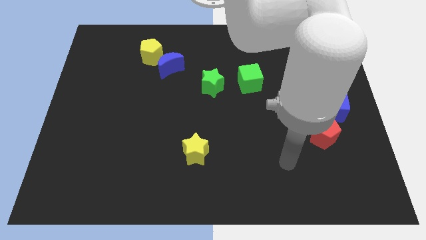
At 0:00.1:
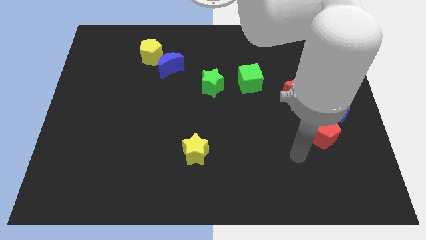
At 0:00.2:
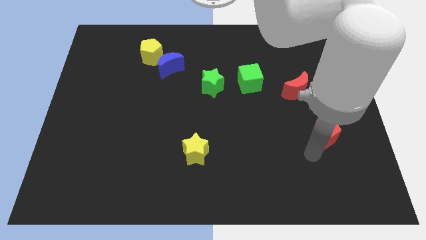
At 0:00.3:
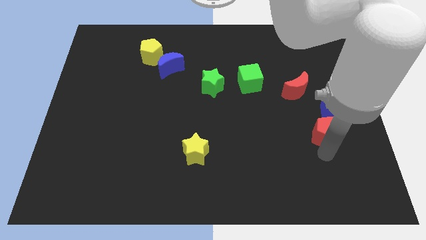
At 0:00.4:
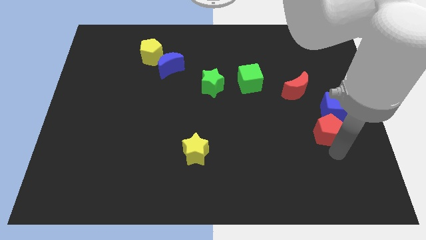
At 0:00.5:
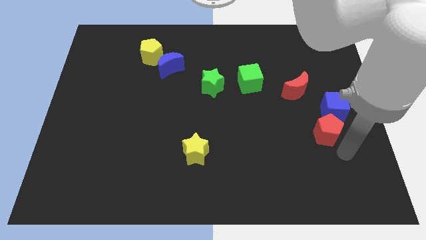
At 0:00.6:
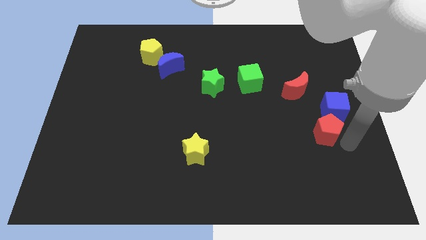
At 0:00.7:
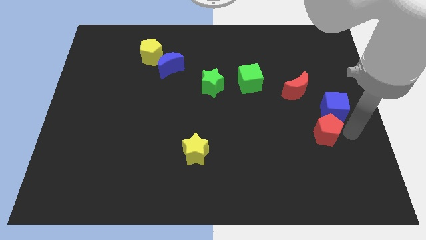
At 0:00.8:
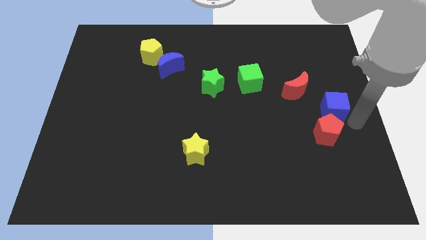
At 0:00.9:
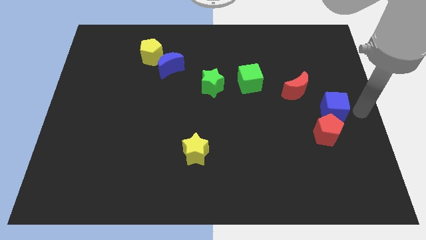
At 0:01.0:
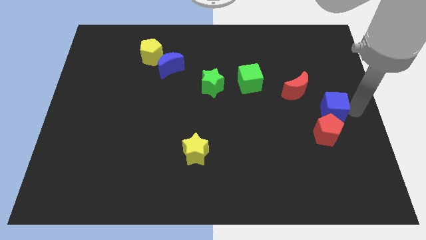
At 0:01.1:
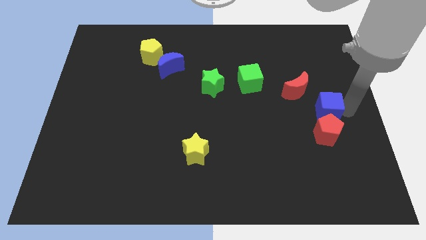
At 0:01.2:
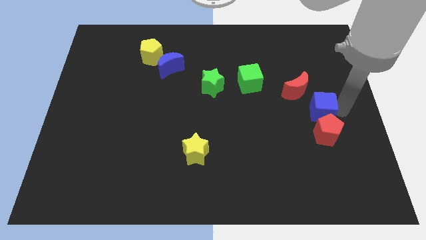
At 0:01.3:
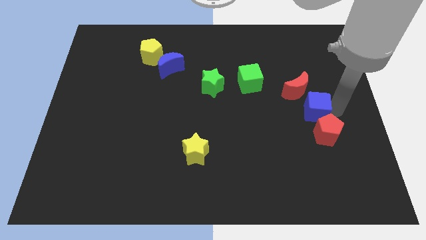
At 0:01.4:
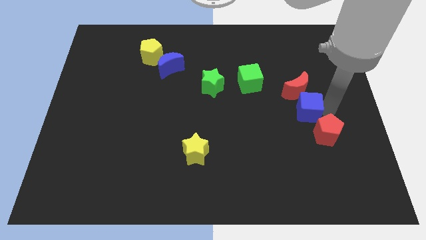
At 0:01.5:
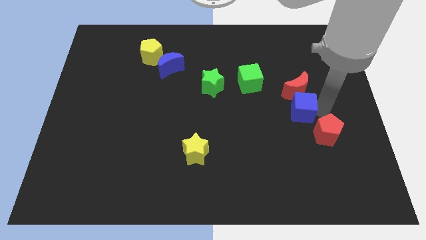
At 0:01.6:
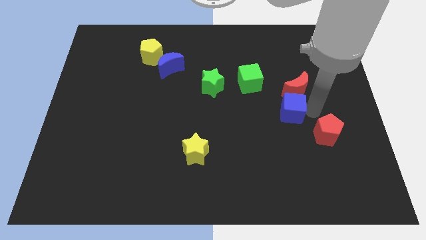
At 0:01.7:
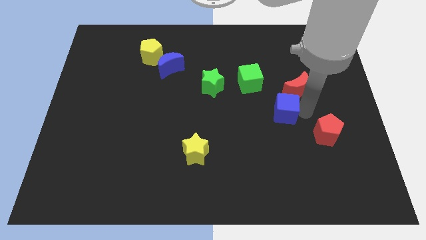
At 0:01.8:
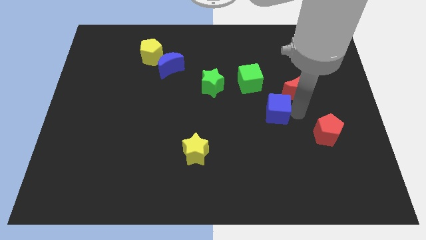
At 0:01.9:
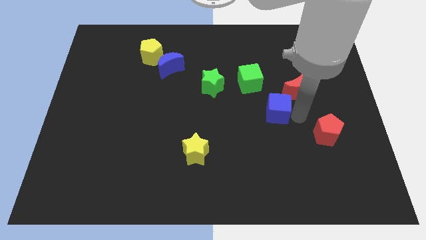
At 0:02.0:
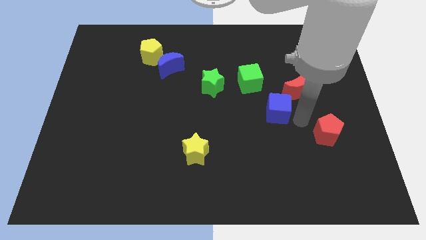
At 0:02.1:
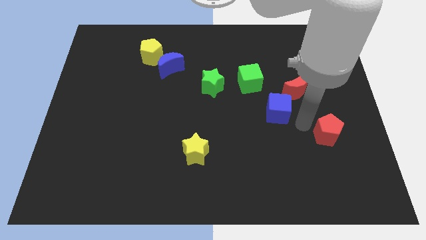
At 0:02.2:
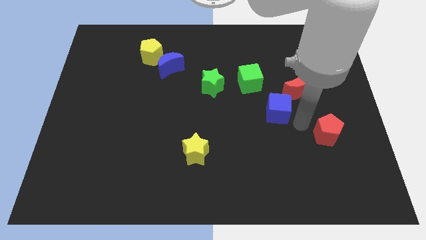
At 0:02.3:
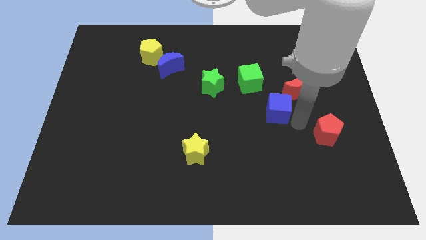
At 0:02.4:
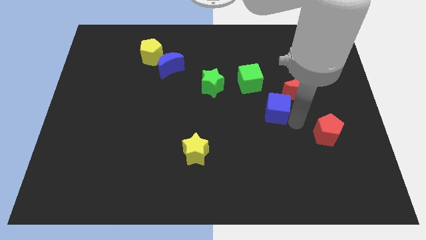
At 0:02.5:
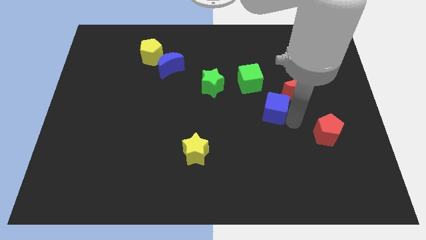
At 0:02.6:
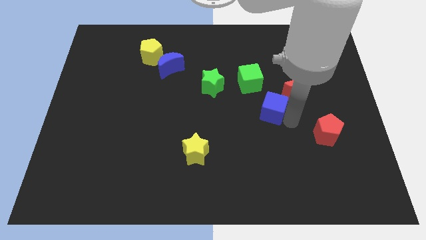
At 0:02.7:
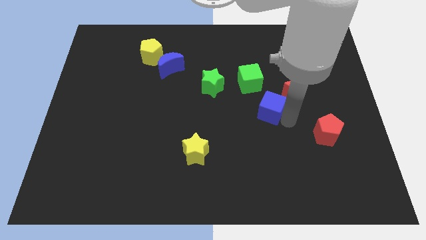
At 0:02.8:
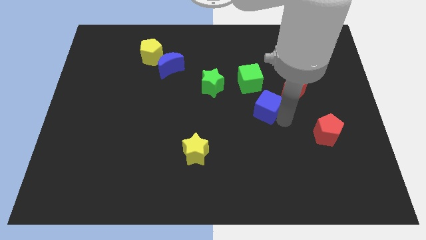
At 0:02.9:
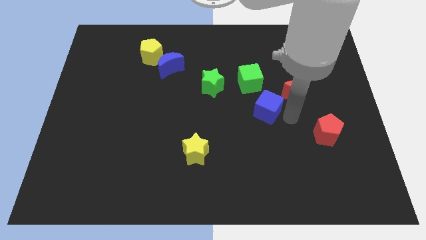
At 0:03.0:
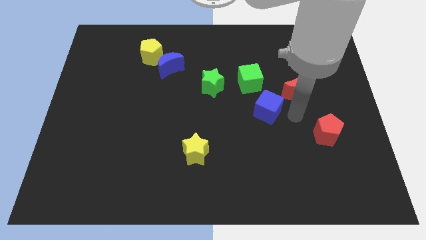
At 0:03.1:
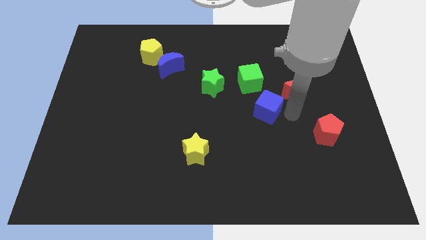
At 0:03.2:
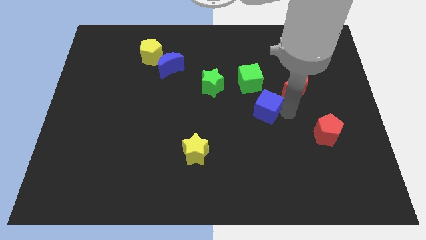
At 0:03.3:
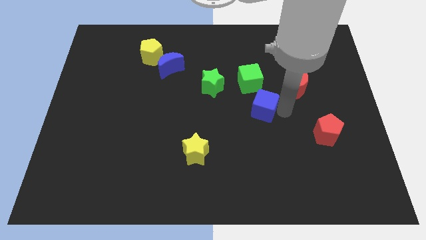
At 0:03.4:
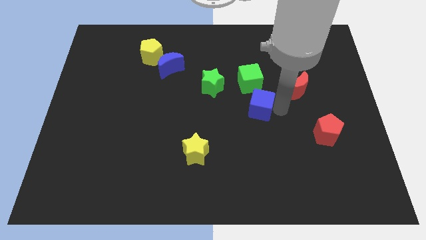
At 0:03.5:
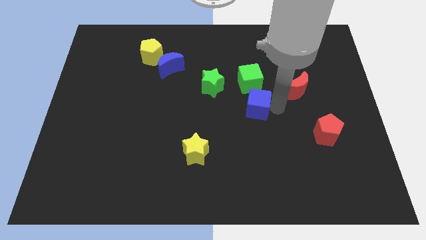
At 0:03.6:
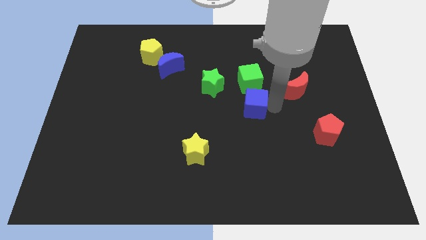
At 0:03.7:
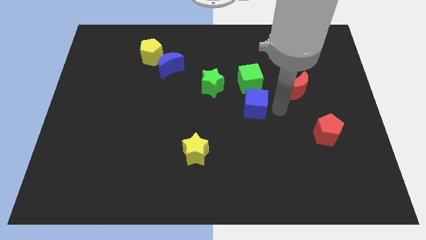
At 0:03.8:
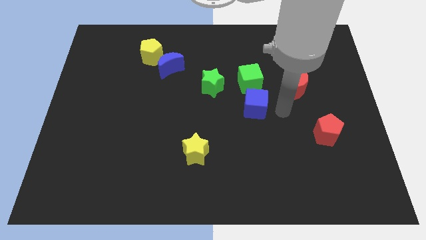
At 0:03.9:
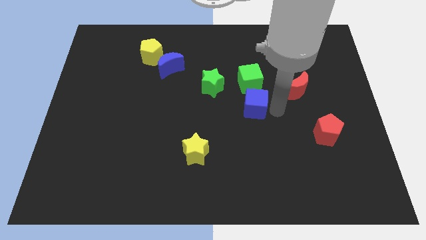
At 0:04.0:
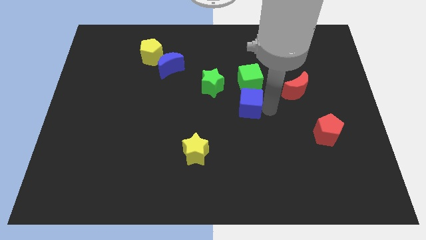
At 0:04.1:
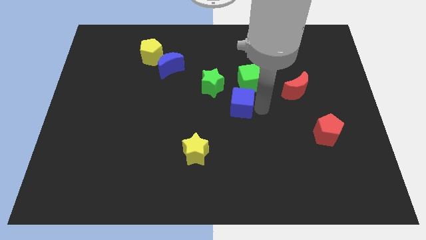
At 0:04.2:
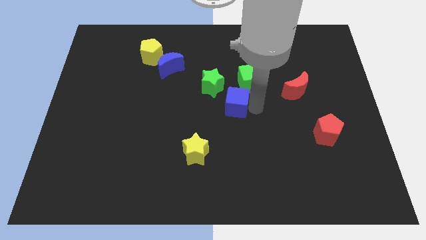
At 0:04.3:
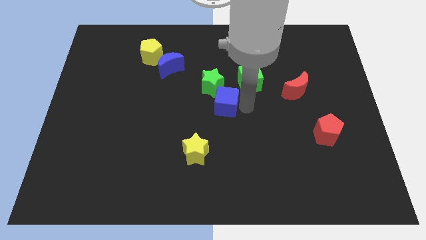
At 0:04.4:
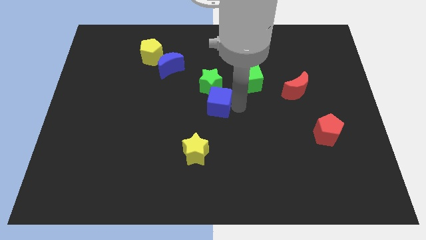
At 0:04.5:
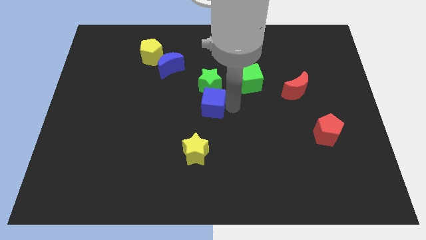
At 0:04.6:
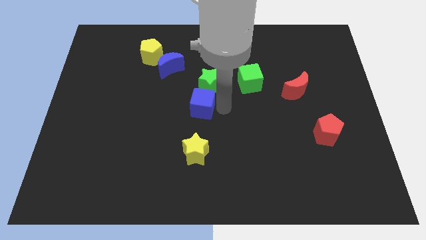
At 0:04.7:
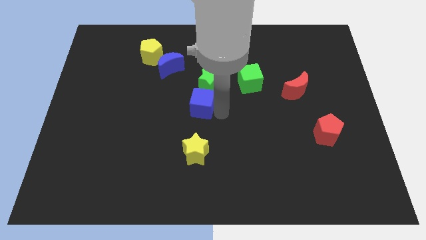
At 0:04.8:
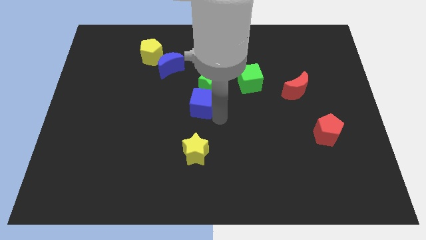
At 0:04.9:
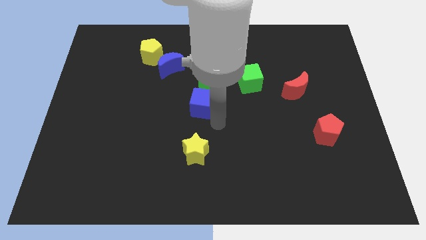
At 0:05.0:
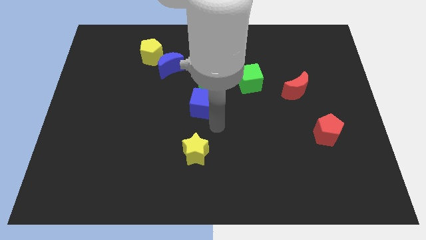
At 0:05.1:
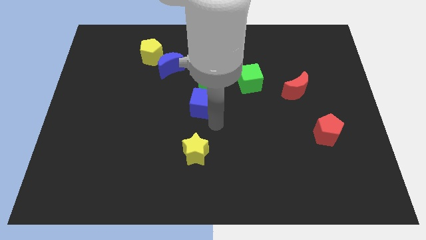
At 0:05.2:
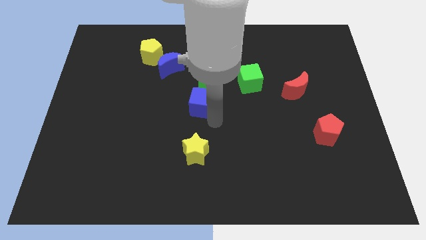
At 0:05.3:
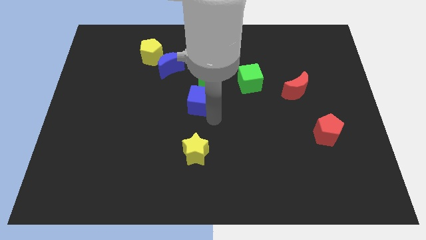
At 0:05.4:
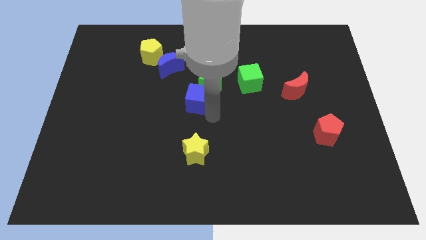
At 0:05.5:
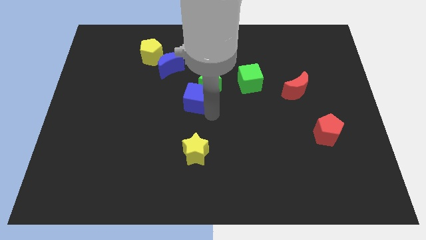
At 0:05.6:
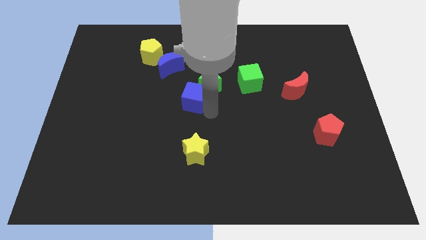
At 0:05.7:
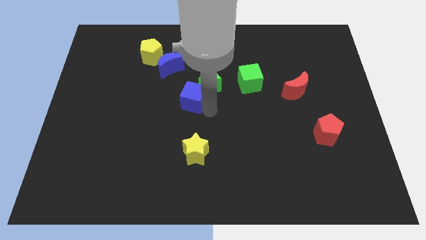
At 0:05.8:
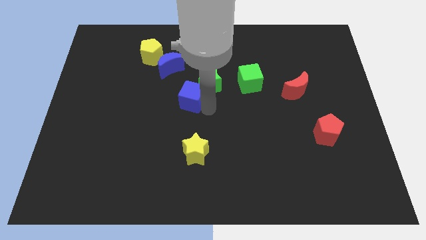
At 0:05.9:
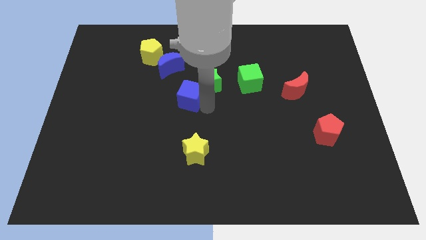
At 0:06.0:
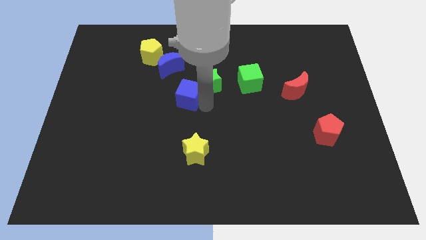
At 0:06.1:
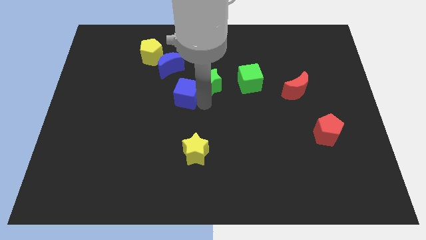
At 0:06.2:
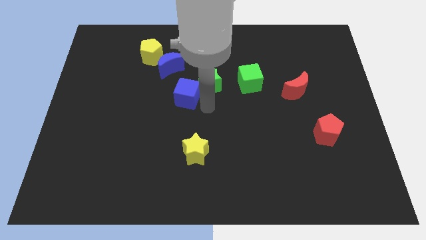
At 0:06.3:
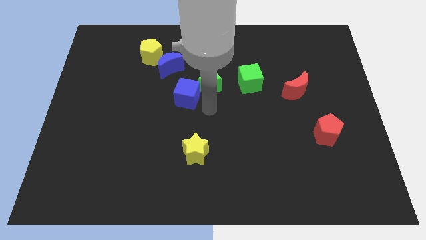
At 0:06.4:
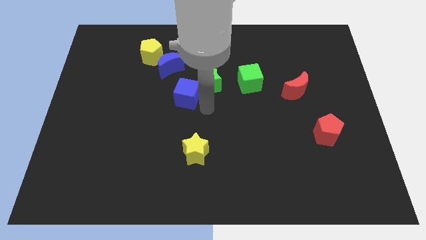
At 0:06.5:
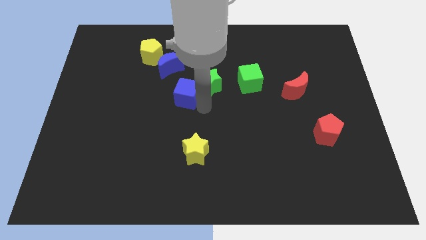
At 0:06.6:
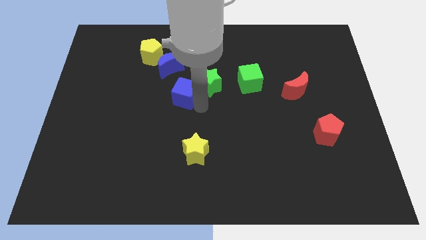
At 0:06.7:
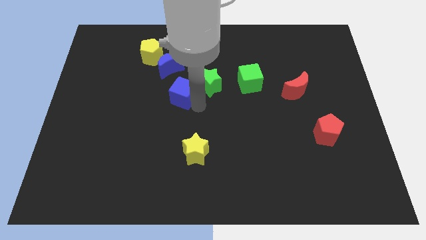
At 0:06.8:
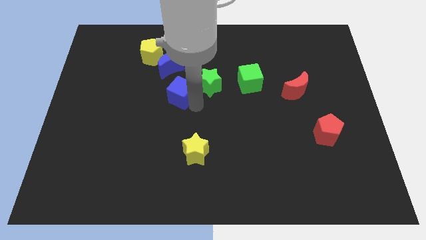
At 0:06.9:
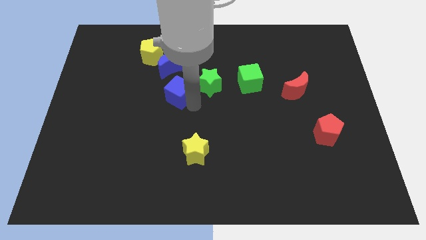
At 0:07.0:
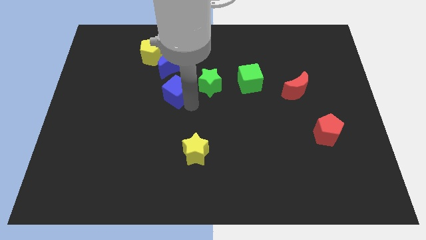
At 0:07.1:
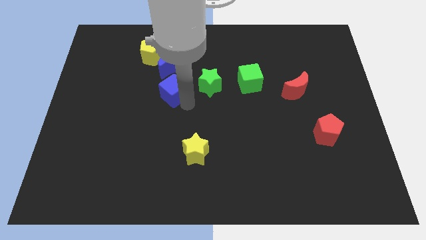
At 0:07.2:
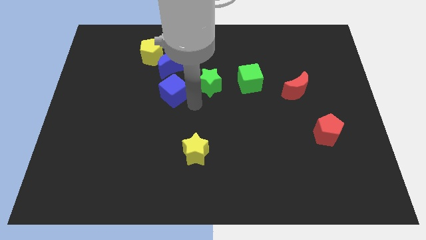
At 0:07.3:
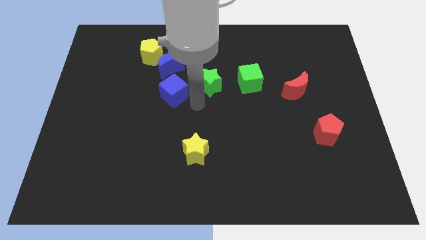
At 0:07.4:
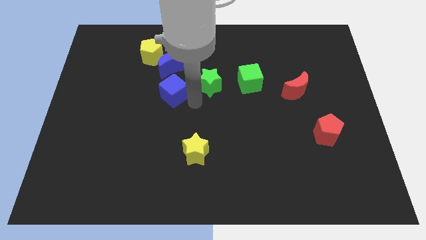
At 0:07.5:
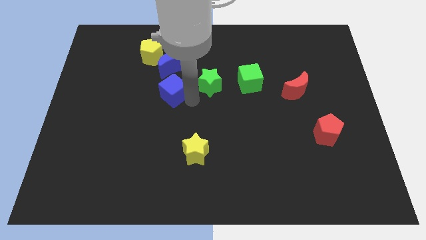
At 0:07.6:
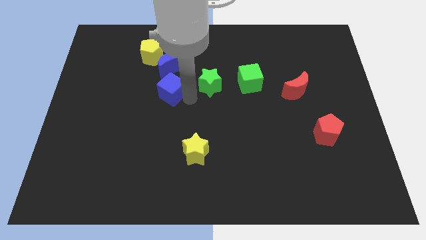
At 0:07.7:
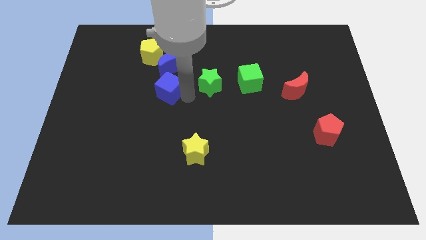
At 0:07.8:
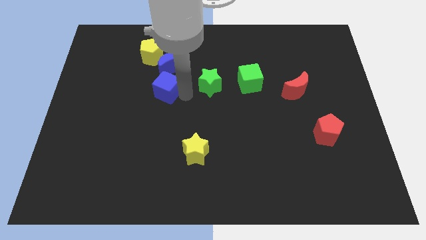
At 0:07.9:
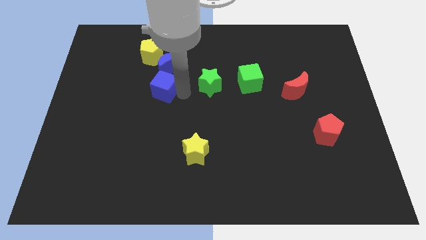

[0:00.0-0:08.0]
slide the blue cube to the bottom left of the blue moon
